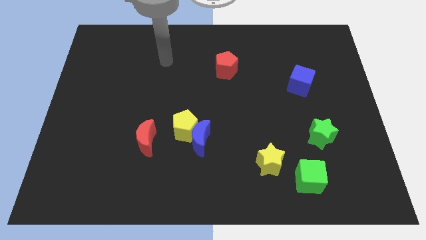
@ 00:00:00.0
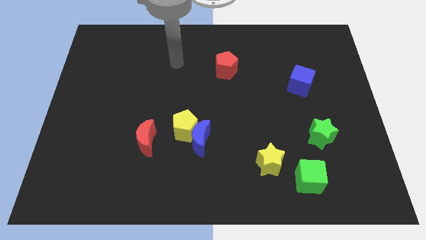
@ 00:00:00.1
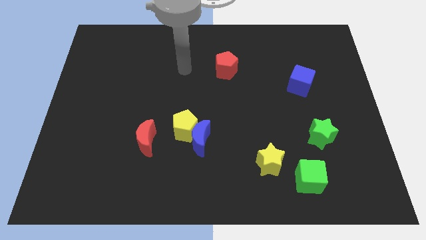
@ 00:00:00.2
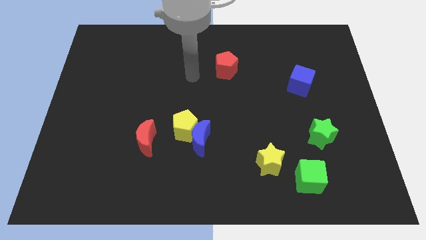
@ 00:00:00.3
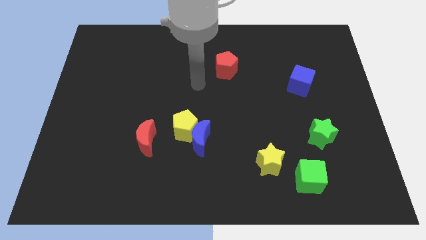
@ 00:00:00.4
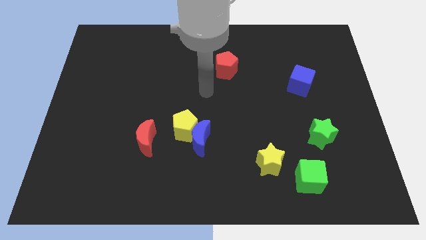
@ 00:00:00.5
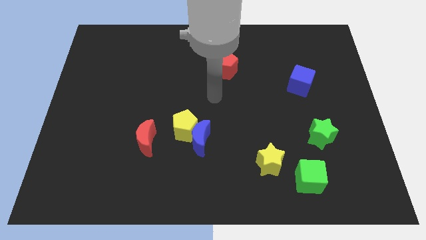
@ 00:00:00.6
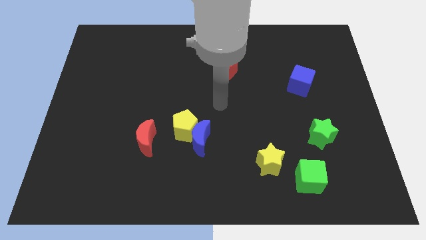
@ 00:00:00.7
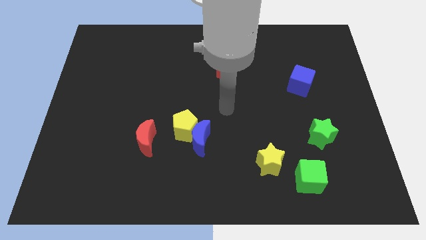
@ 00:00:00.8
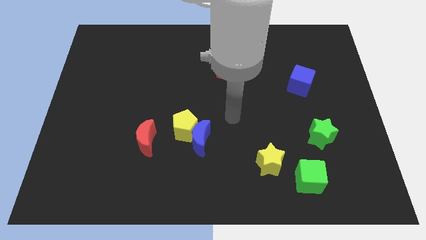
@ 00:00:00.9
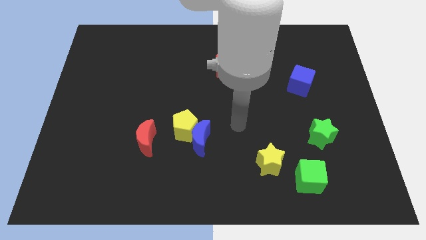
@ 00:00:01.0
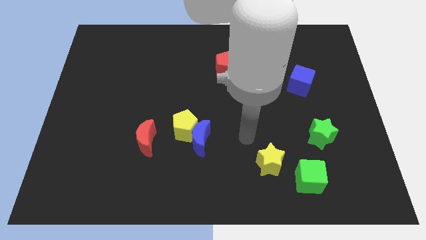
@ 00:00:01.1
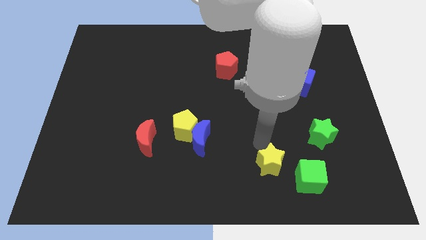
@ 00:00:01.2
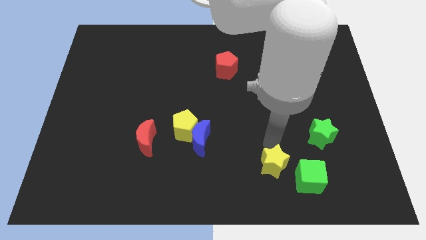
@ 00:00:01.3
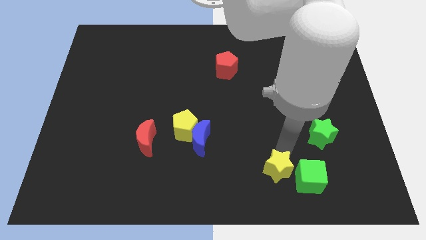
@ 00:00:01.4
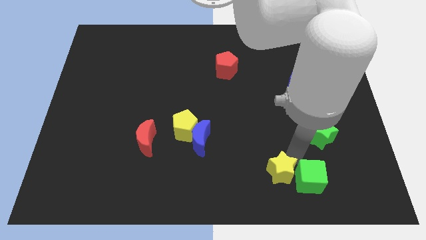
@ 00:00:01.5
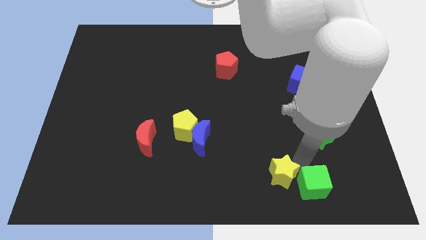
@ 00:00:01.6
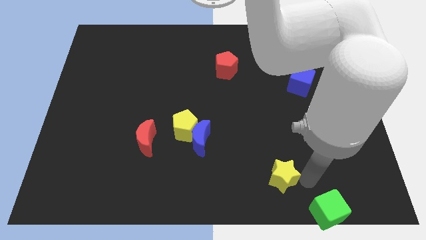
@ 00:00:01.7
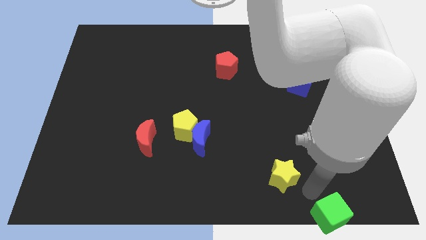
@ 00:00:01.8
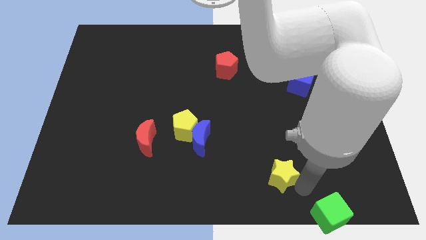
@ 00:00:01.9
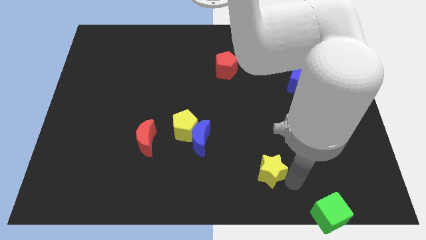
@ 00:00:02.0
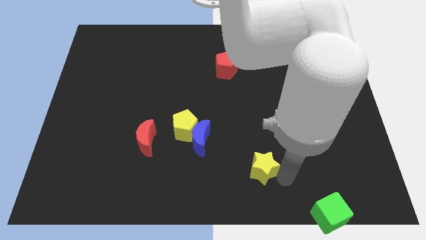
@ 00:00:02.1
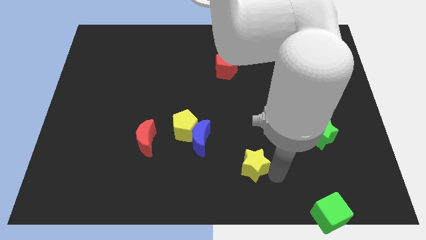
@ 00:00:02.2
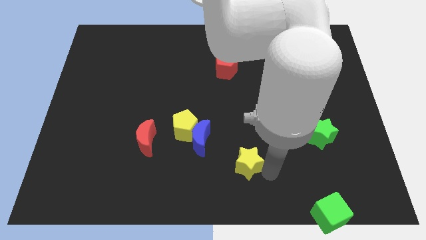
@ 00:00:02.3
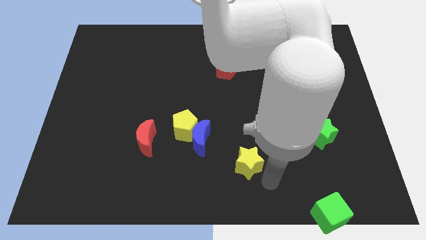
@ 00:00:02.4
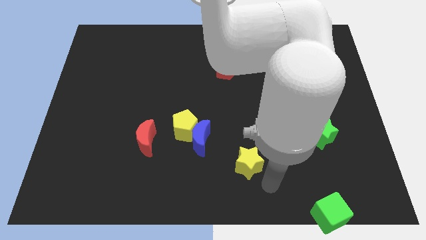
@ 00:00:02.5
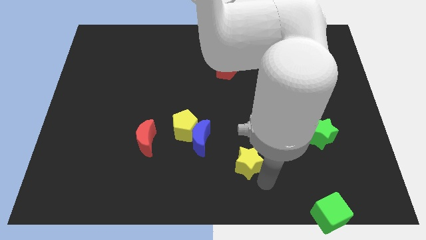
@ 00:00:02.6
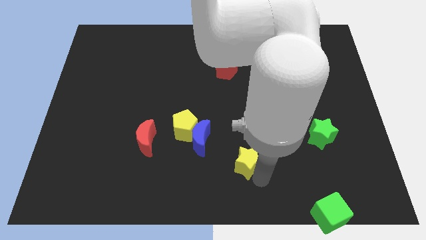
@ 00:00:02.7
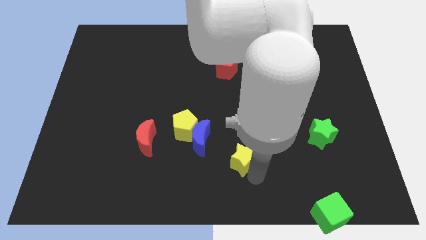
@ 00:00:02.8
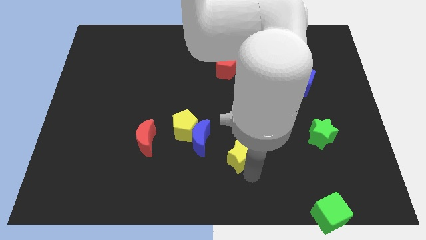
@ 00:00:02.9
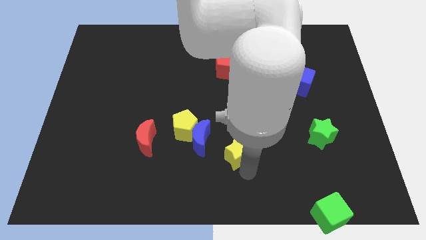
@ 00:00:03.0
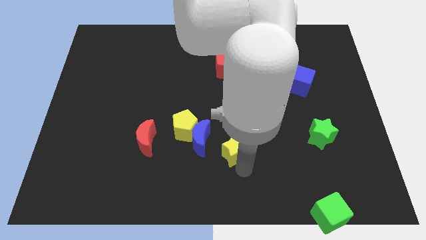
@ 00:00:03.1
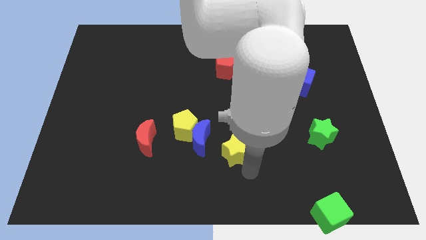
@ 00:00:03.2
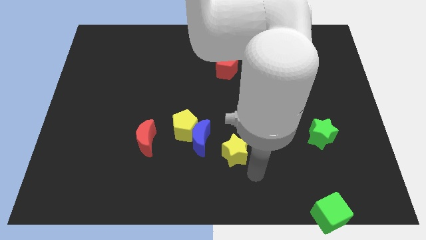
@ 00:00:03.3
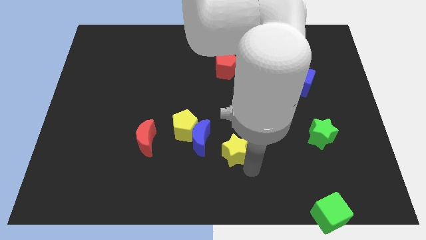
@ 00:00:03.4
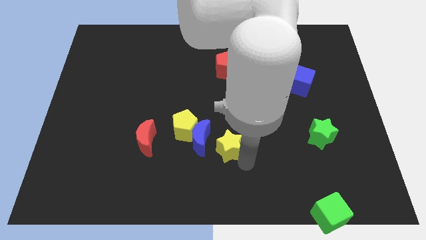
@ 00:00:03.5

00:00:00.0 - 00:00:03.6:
slightly slide the yellow star diagonally up and to the left

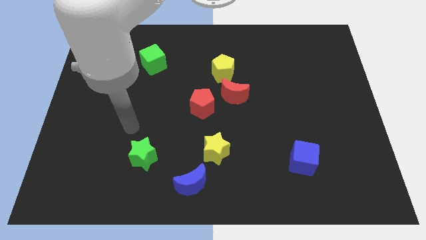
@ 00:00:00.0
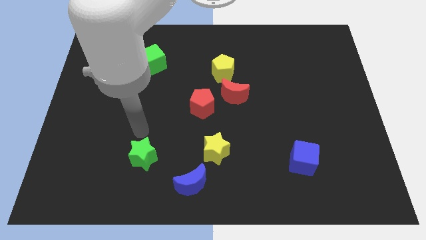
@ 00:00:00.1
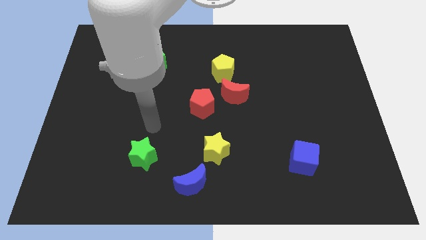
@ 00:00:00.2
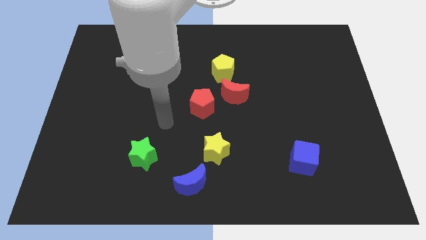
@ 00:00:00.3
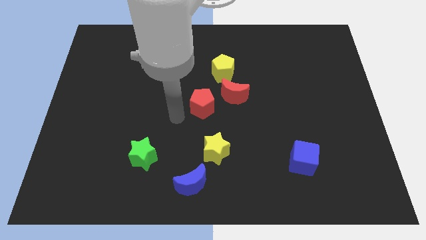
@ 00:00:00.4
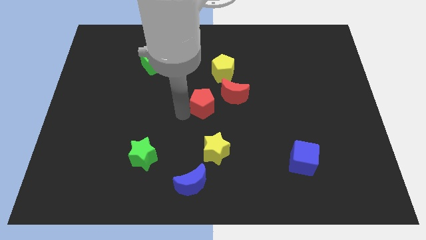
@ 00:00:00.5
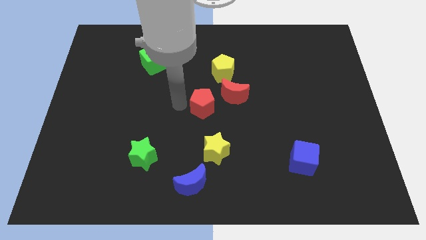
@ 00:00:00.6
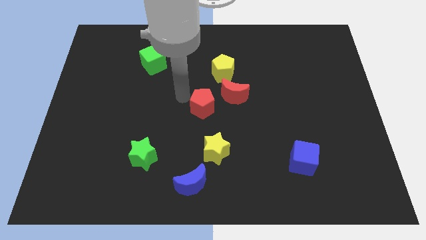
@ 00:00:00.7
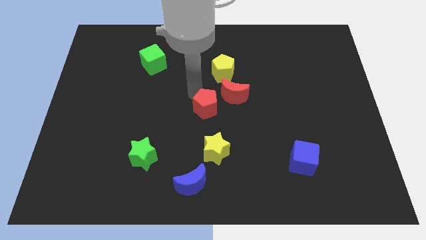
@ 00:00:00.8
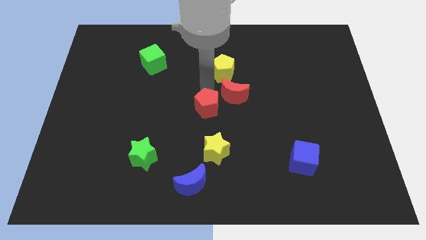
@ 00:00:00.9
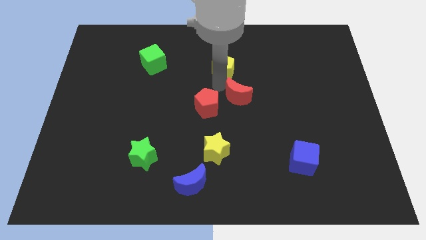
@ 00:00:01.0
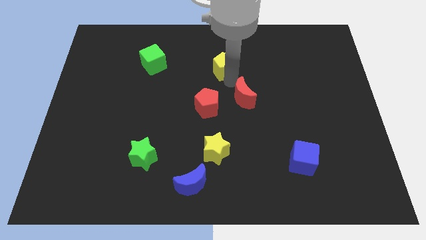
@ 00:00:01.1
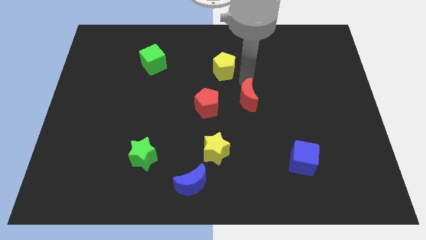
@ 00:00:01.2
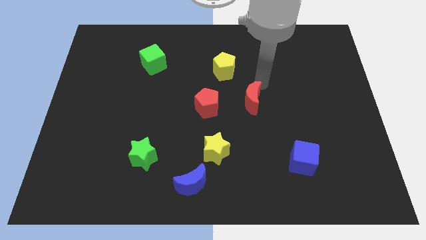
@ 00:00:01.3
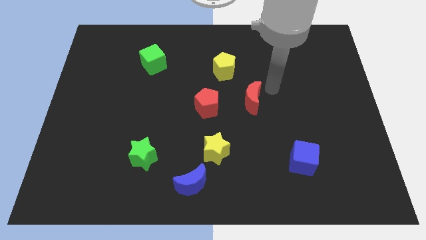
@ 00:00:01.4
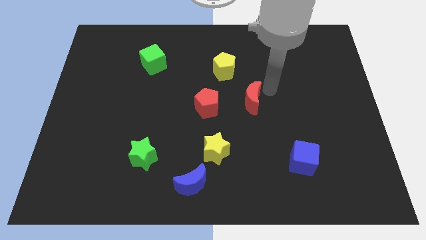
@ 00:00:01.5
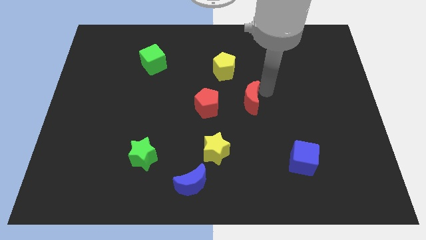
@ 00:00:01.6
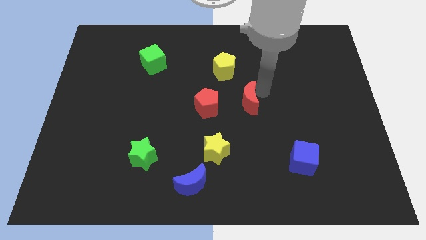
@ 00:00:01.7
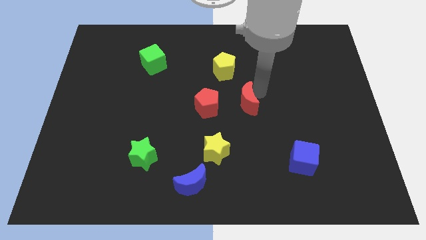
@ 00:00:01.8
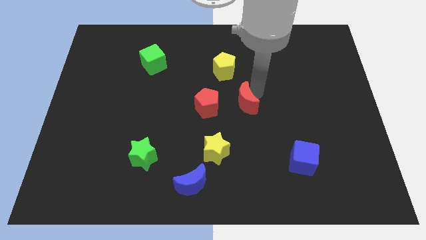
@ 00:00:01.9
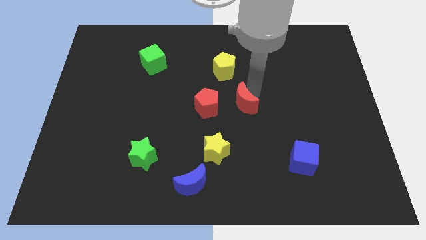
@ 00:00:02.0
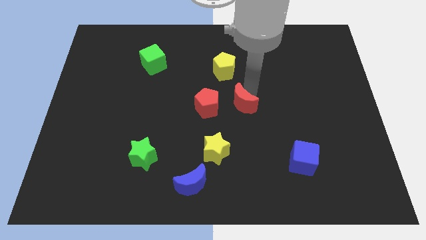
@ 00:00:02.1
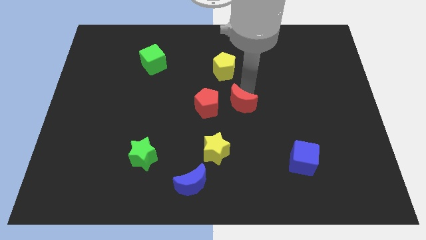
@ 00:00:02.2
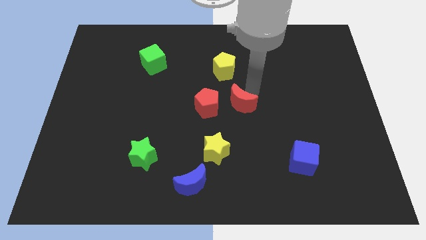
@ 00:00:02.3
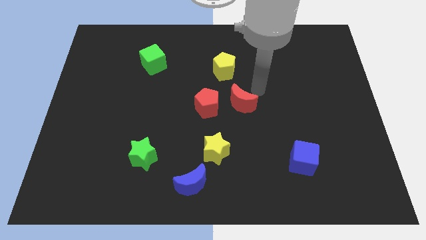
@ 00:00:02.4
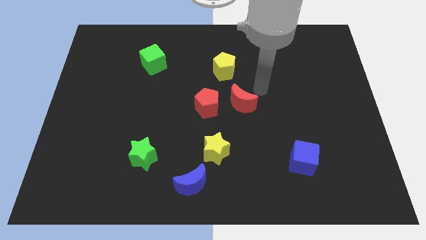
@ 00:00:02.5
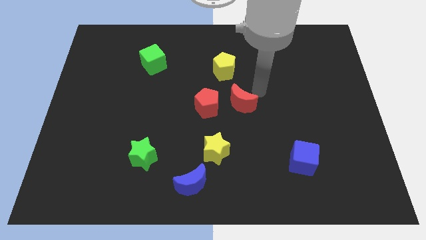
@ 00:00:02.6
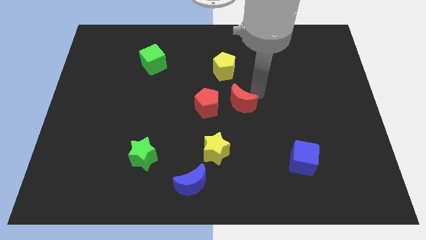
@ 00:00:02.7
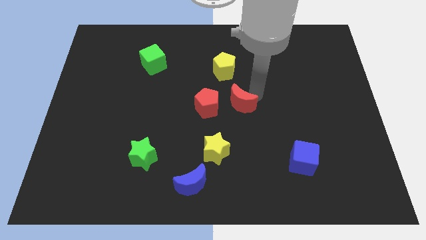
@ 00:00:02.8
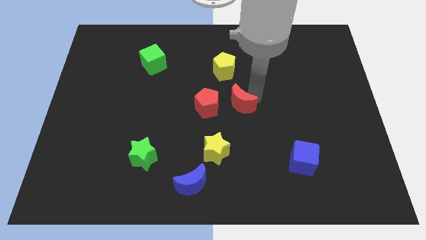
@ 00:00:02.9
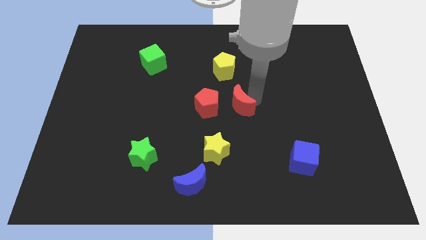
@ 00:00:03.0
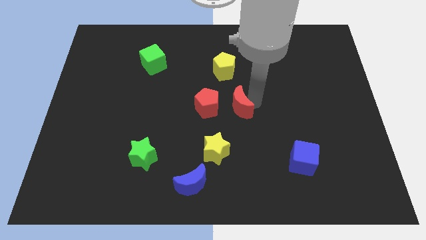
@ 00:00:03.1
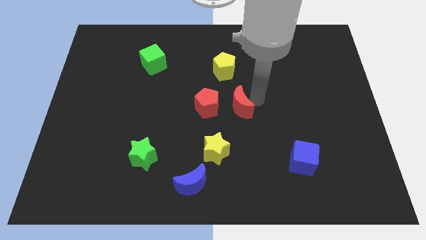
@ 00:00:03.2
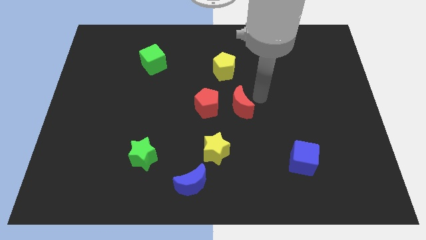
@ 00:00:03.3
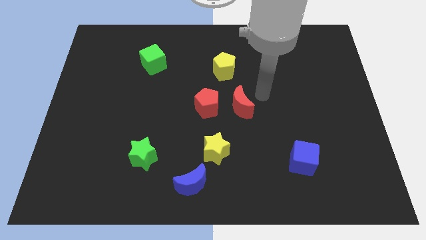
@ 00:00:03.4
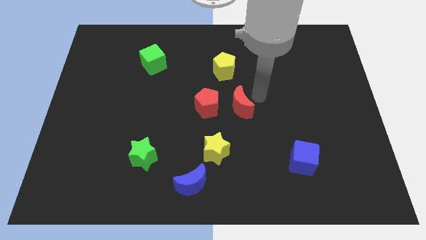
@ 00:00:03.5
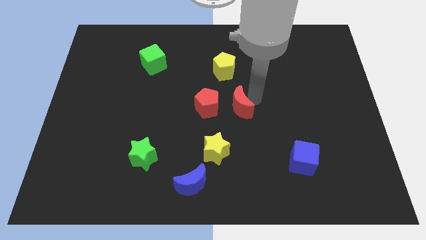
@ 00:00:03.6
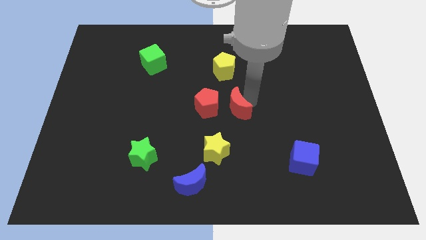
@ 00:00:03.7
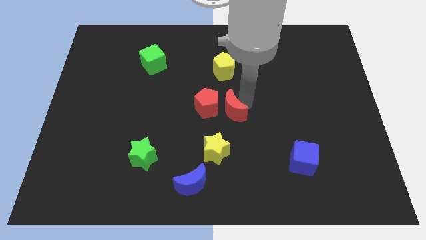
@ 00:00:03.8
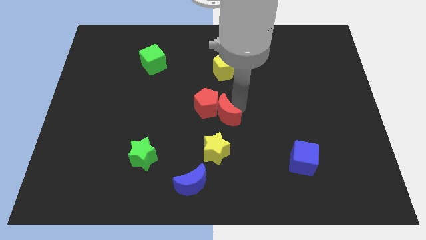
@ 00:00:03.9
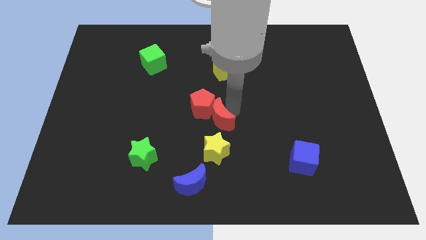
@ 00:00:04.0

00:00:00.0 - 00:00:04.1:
slide the red moon a little downwards and to the left
